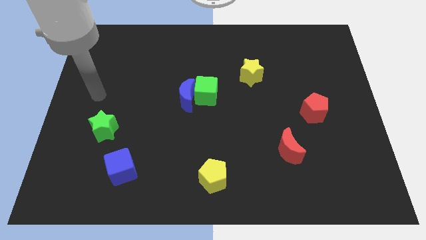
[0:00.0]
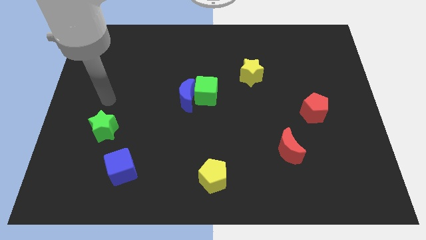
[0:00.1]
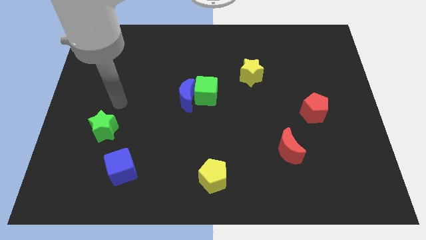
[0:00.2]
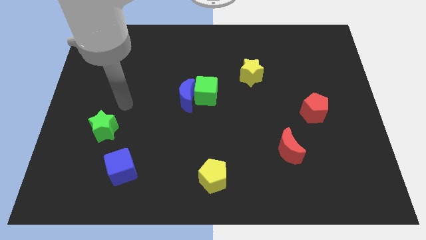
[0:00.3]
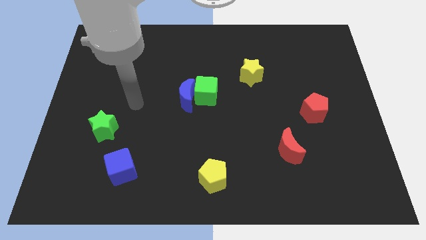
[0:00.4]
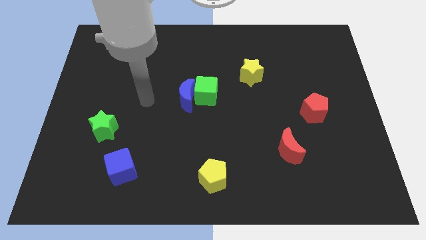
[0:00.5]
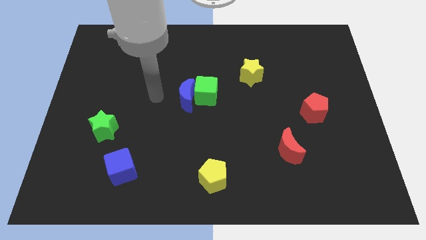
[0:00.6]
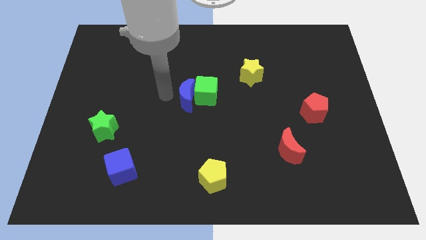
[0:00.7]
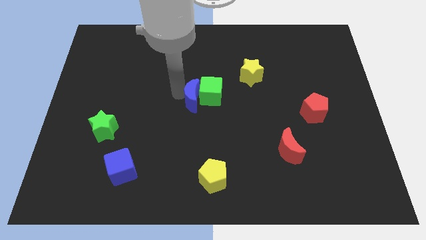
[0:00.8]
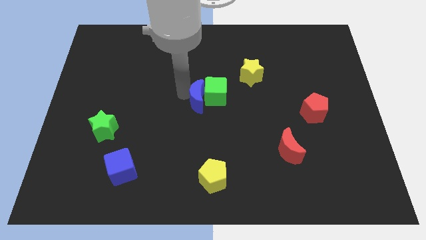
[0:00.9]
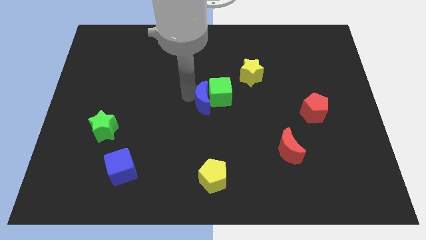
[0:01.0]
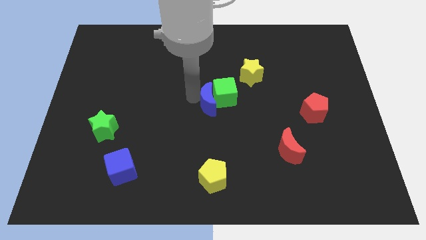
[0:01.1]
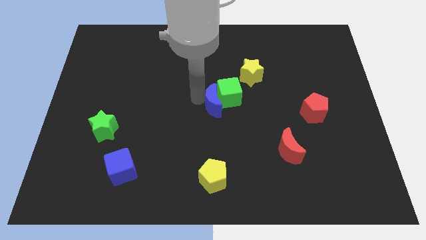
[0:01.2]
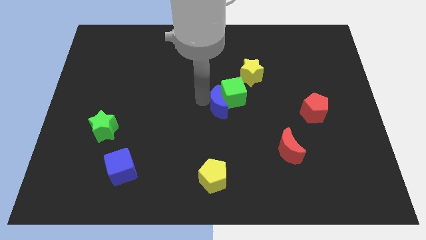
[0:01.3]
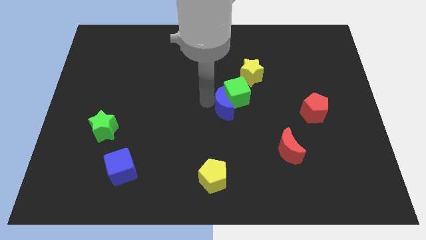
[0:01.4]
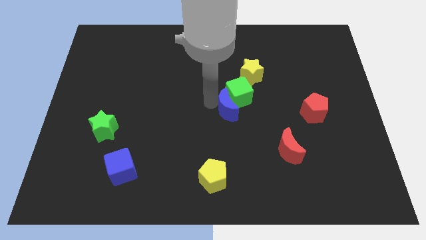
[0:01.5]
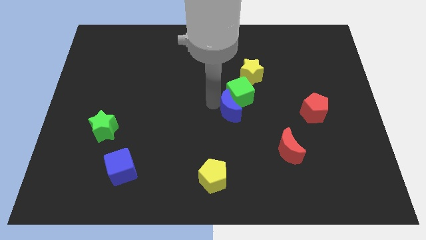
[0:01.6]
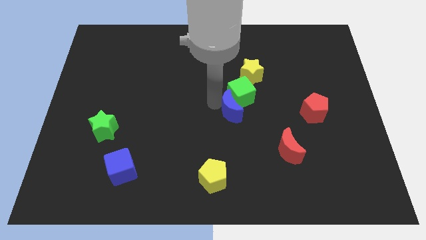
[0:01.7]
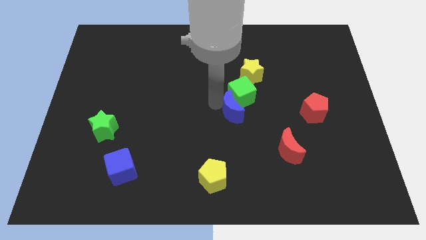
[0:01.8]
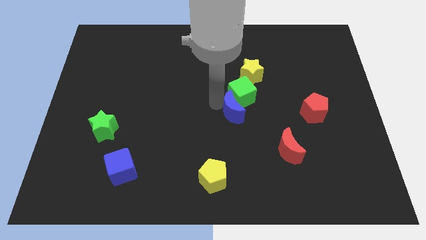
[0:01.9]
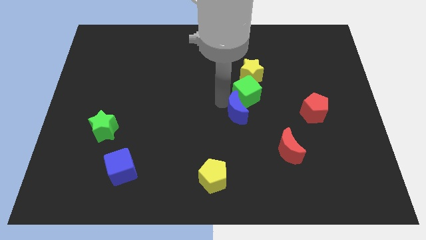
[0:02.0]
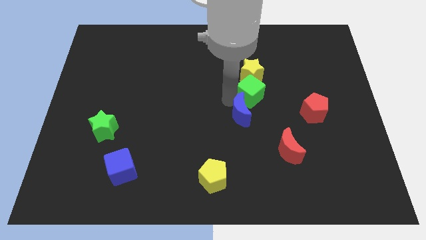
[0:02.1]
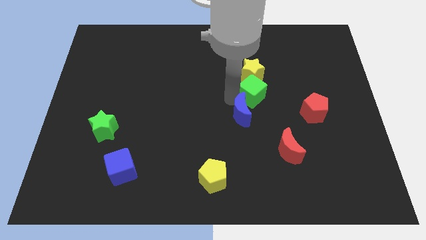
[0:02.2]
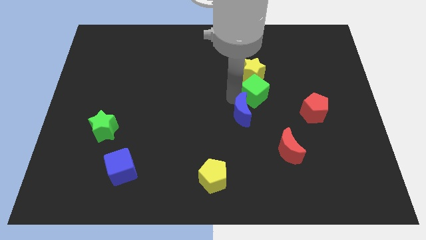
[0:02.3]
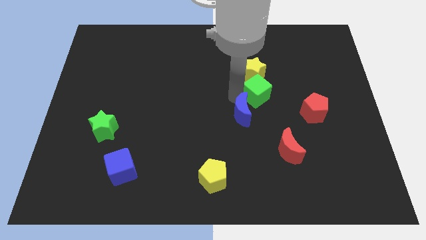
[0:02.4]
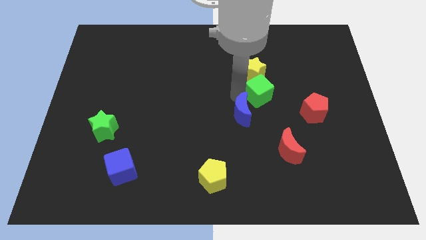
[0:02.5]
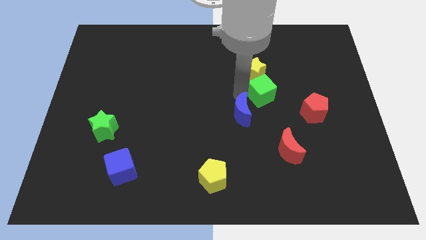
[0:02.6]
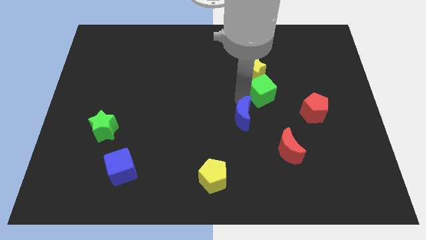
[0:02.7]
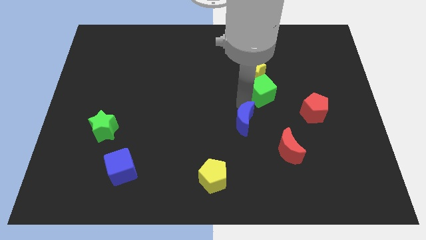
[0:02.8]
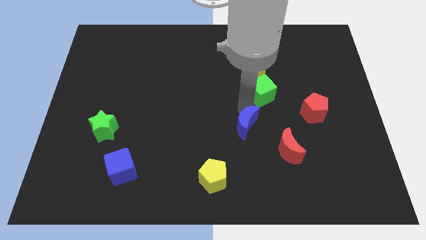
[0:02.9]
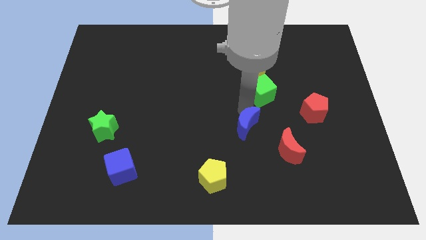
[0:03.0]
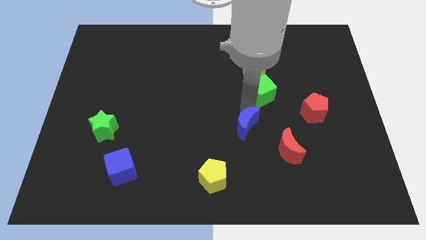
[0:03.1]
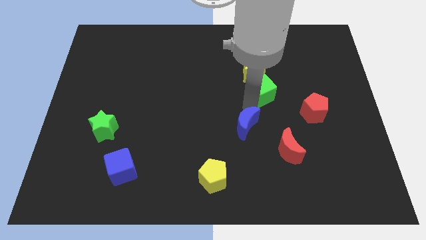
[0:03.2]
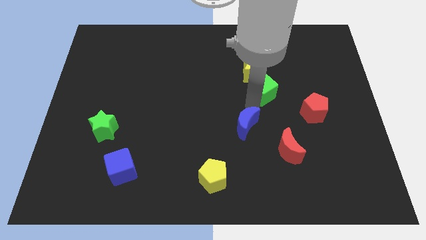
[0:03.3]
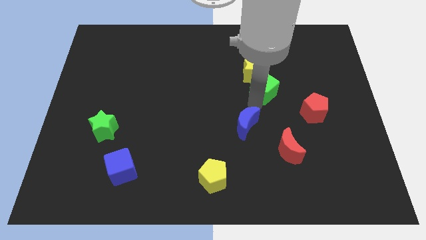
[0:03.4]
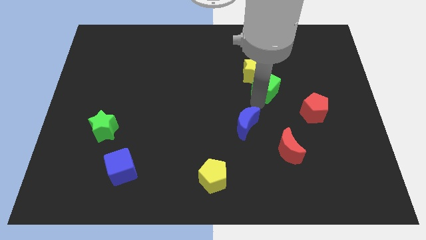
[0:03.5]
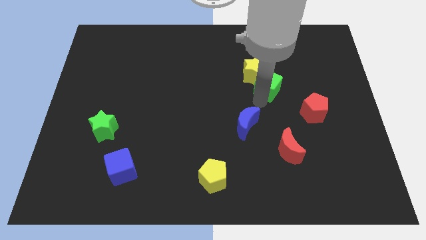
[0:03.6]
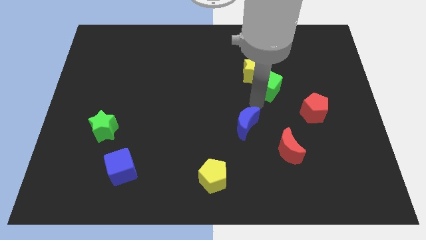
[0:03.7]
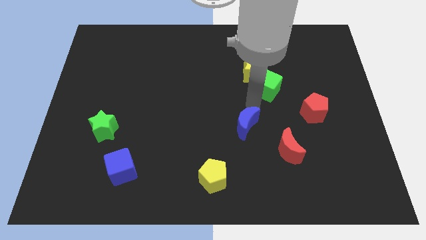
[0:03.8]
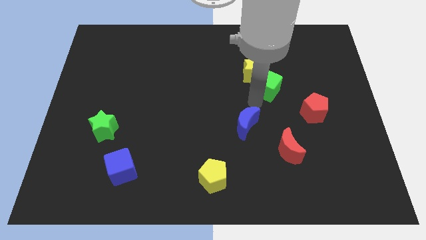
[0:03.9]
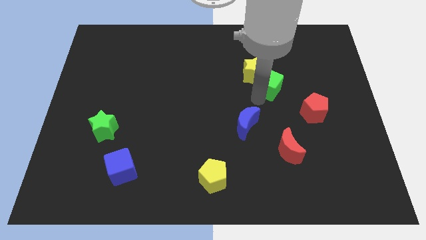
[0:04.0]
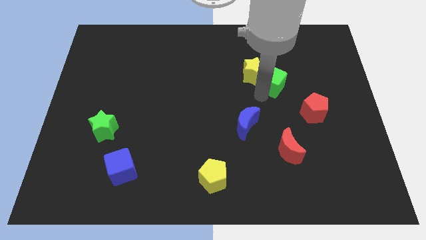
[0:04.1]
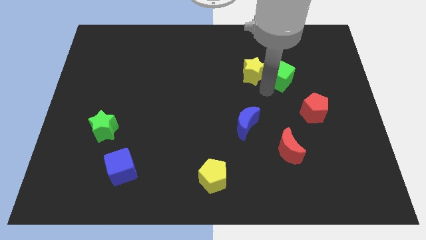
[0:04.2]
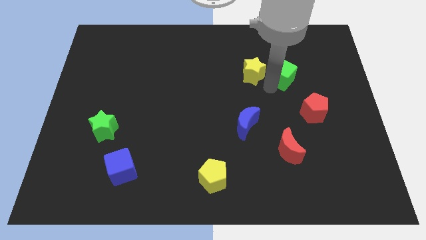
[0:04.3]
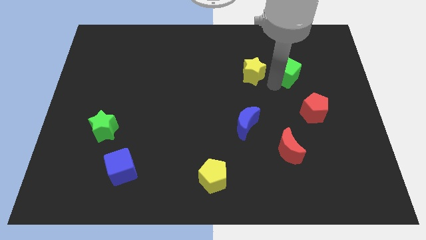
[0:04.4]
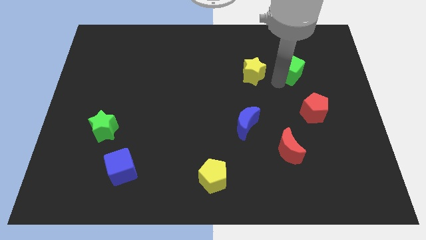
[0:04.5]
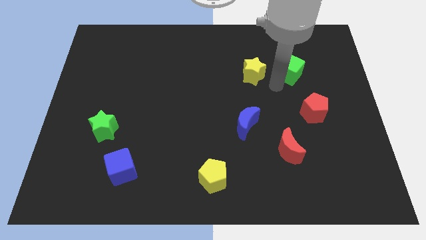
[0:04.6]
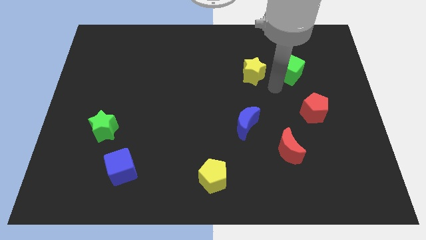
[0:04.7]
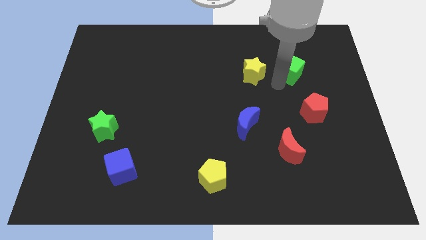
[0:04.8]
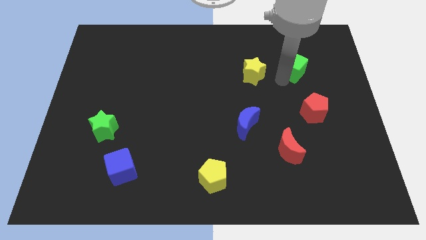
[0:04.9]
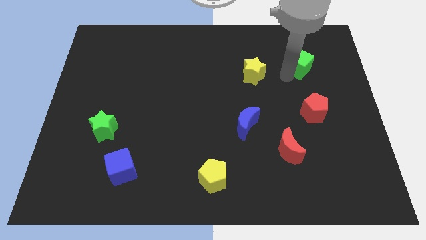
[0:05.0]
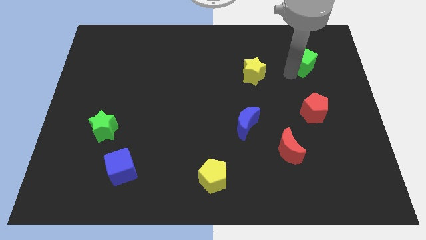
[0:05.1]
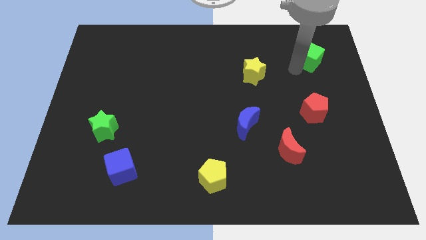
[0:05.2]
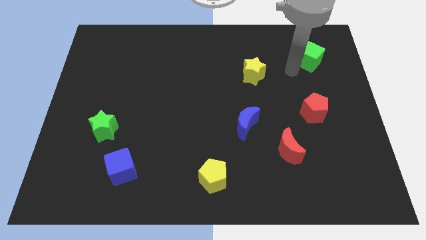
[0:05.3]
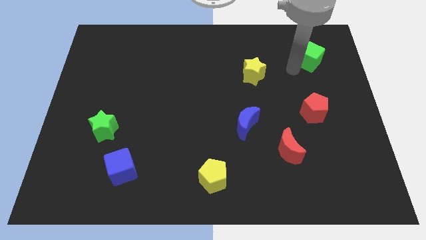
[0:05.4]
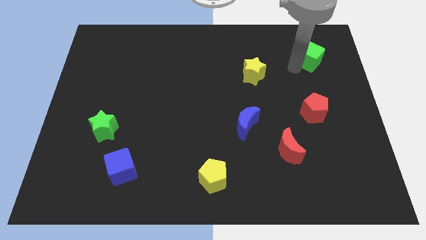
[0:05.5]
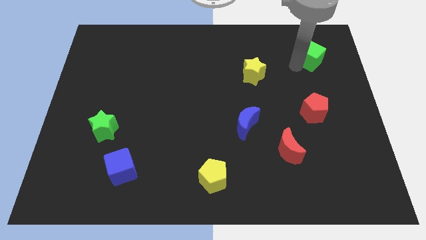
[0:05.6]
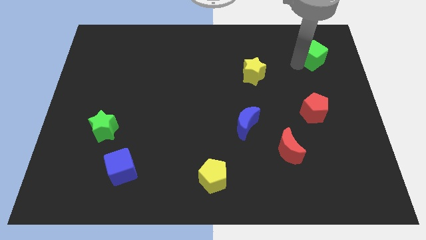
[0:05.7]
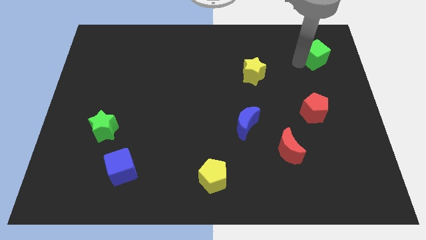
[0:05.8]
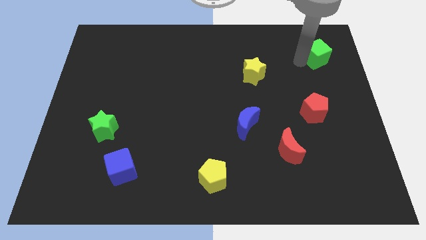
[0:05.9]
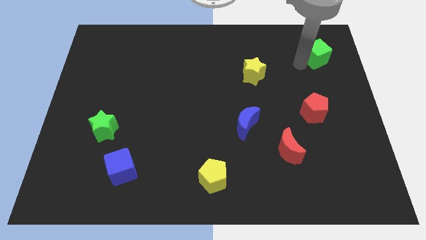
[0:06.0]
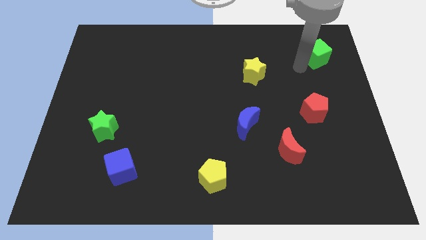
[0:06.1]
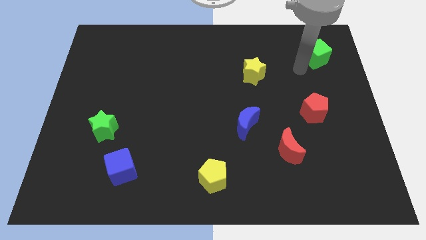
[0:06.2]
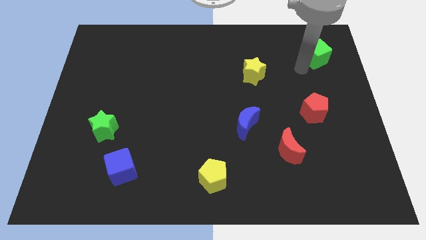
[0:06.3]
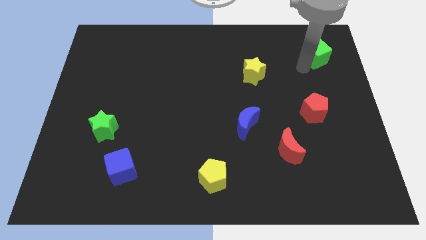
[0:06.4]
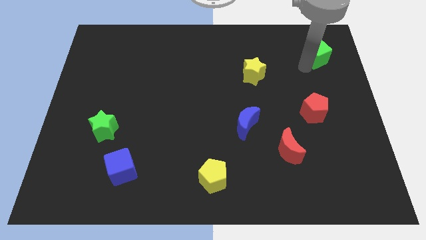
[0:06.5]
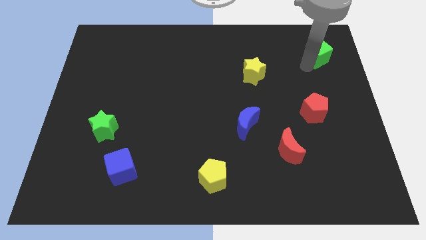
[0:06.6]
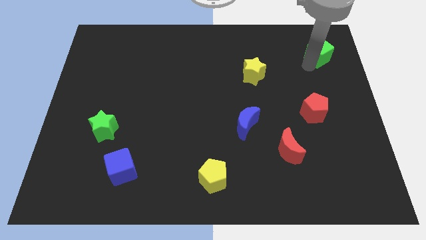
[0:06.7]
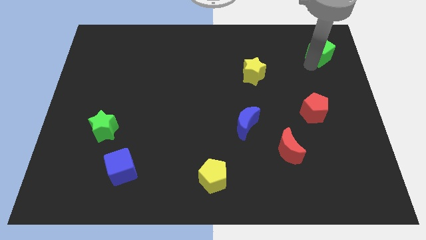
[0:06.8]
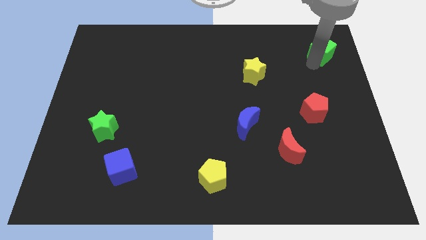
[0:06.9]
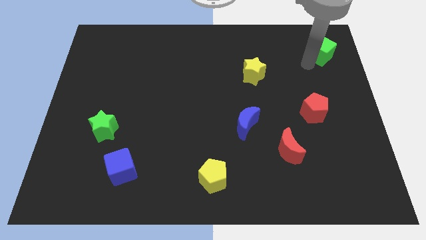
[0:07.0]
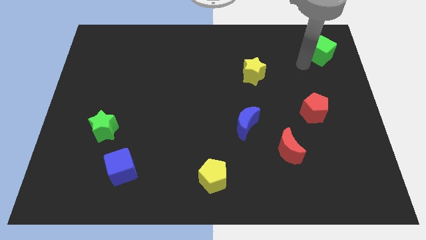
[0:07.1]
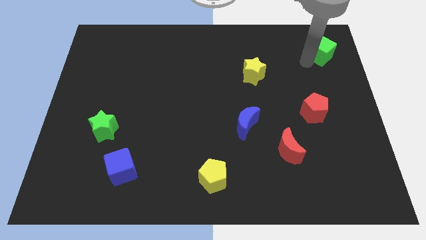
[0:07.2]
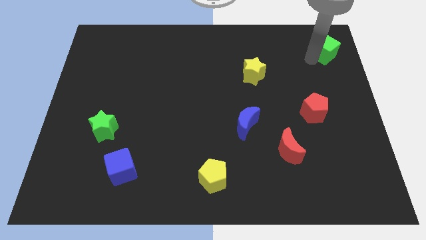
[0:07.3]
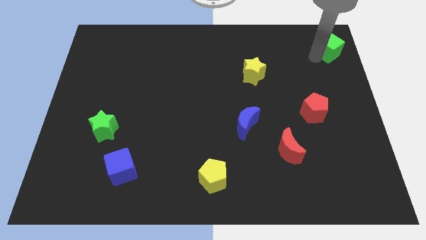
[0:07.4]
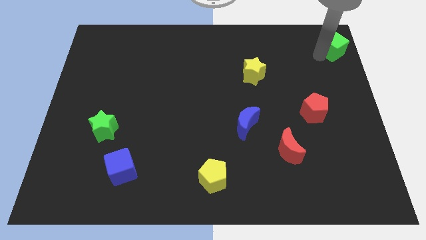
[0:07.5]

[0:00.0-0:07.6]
push the green cube to the top right of the board
